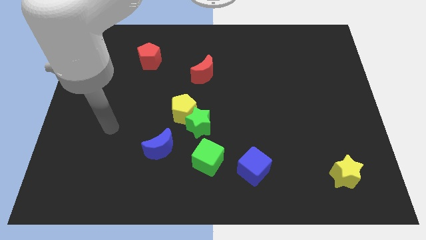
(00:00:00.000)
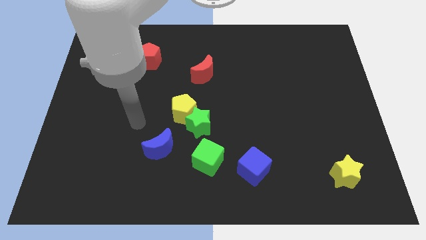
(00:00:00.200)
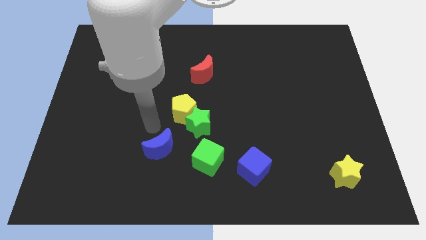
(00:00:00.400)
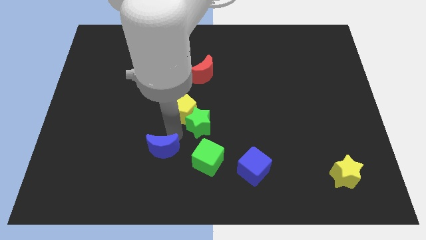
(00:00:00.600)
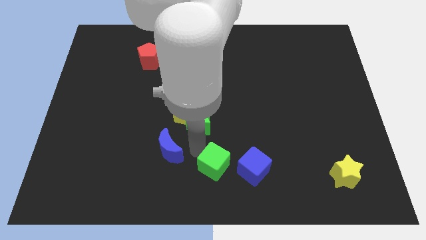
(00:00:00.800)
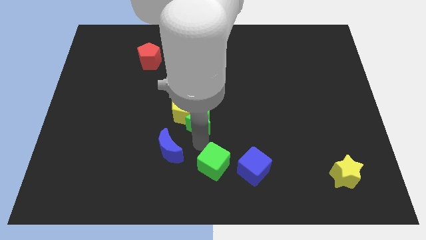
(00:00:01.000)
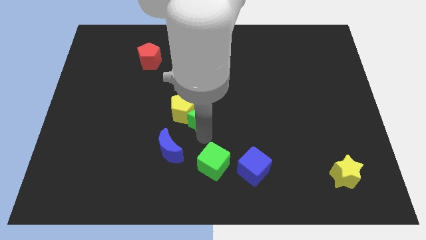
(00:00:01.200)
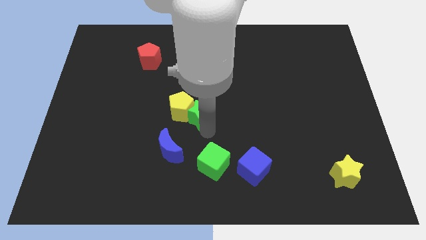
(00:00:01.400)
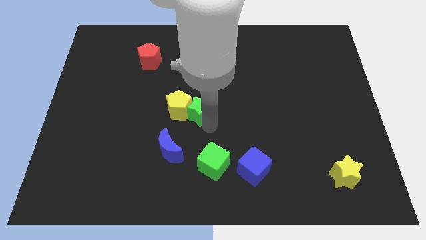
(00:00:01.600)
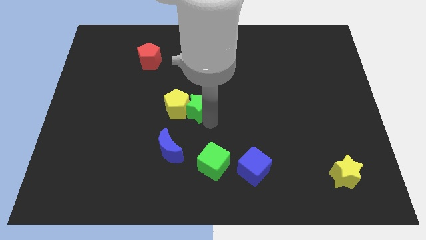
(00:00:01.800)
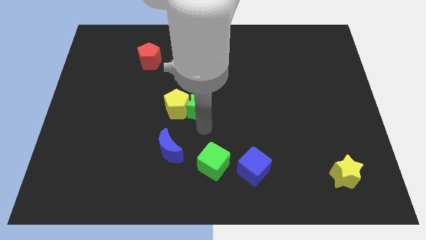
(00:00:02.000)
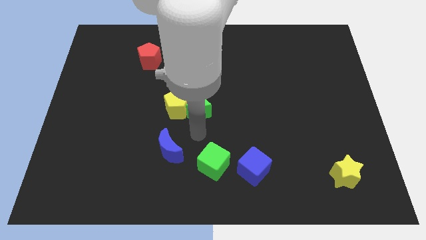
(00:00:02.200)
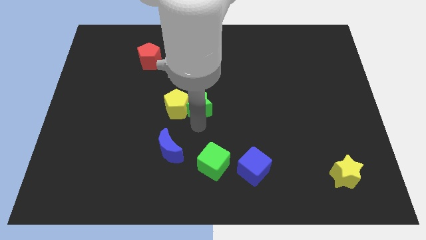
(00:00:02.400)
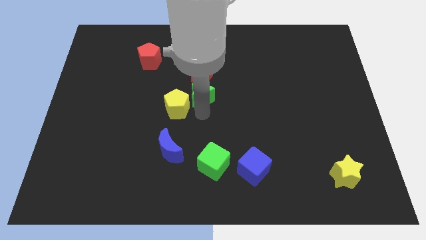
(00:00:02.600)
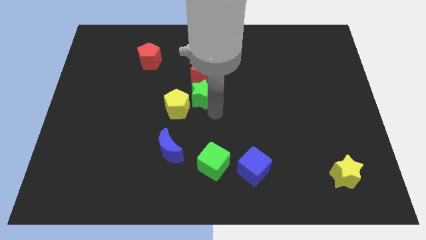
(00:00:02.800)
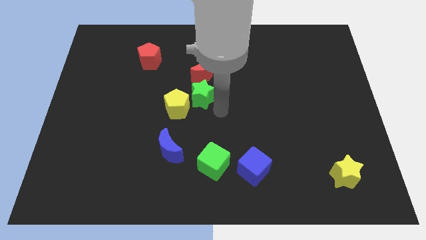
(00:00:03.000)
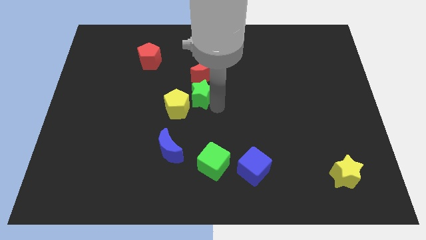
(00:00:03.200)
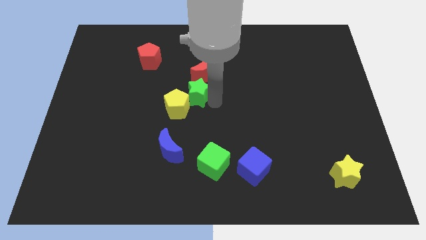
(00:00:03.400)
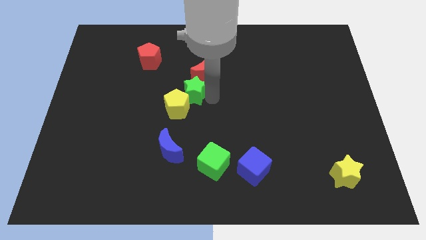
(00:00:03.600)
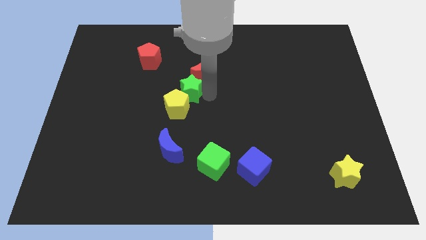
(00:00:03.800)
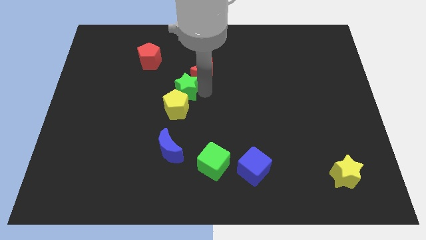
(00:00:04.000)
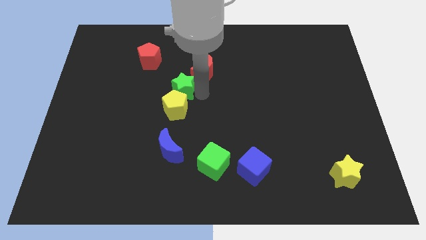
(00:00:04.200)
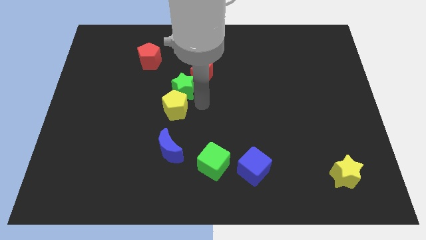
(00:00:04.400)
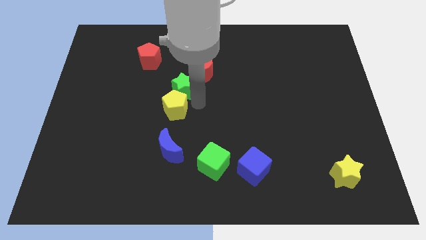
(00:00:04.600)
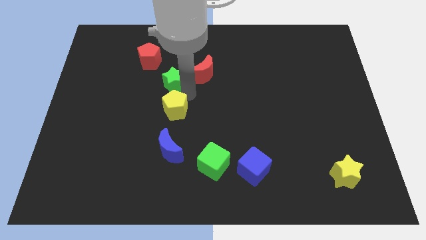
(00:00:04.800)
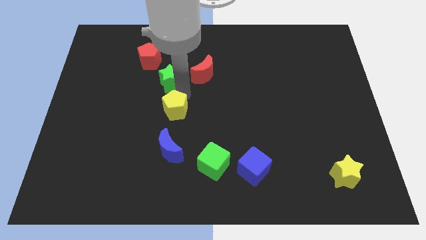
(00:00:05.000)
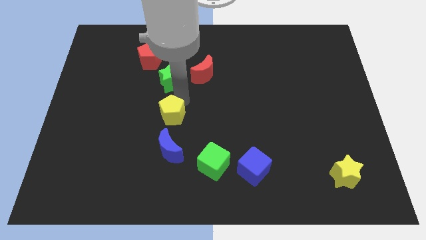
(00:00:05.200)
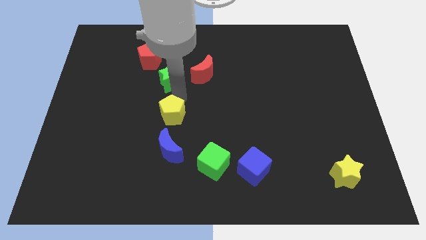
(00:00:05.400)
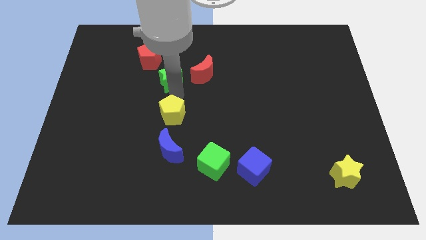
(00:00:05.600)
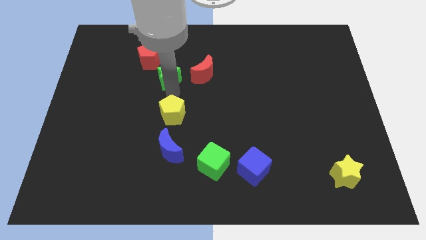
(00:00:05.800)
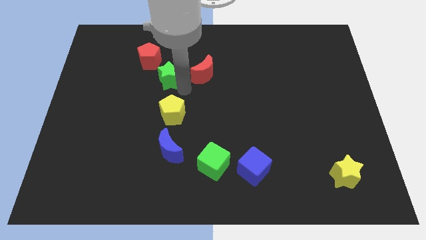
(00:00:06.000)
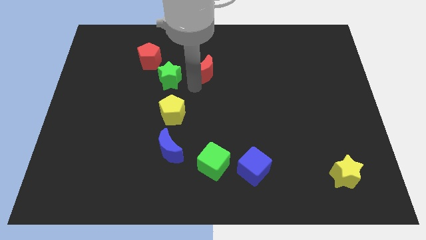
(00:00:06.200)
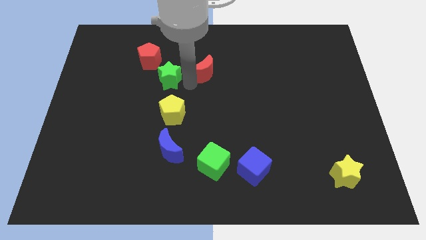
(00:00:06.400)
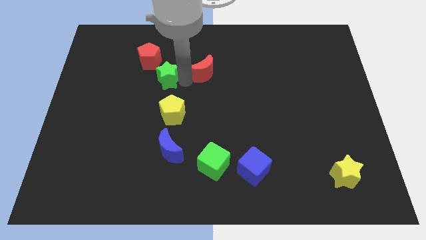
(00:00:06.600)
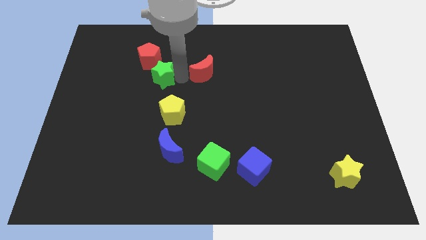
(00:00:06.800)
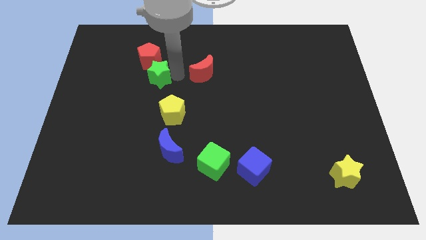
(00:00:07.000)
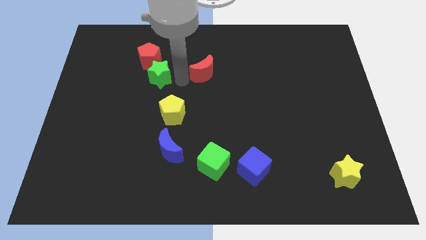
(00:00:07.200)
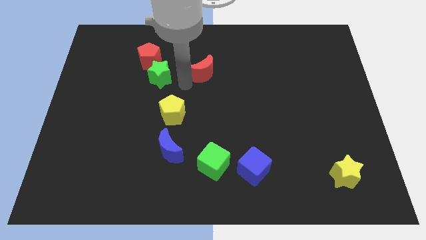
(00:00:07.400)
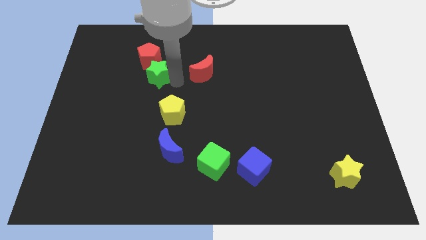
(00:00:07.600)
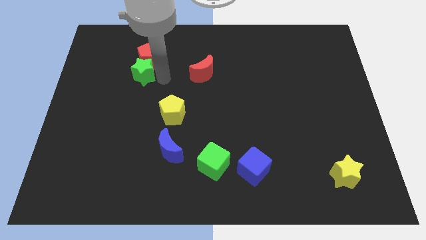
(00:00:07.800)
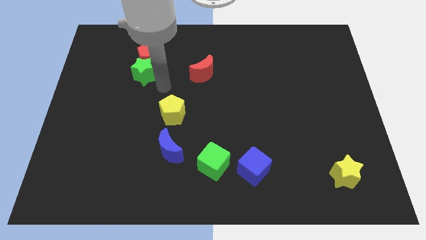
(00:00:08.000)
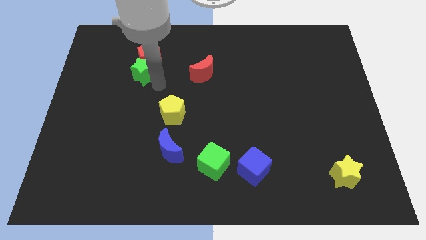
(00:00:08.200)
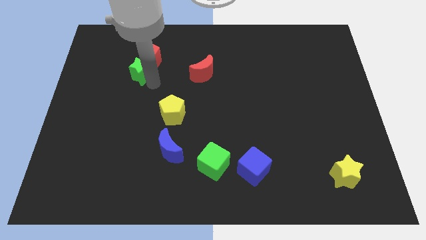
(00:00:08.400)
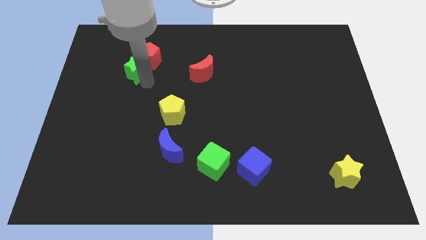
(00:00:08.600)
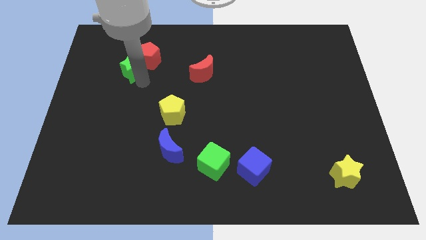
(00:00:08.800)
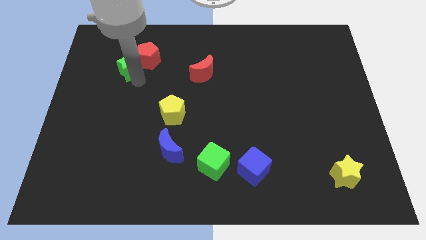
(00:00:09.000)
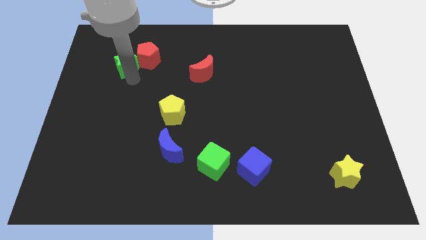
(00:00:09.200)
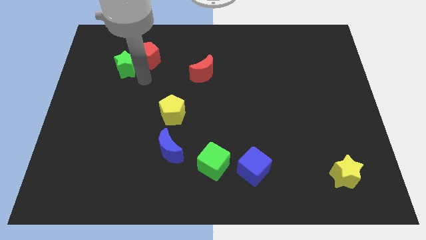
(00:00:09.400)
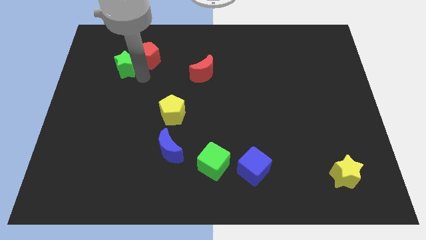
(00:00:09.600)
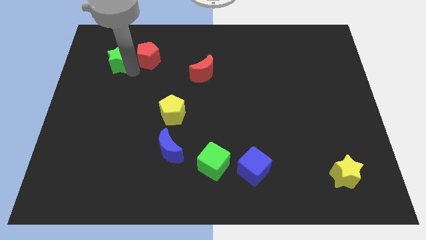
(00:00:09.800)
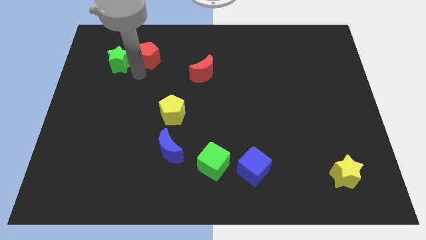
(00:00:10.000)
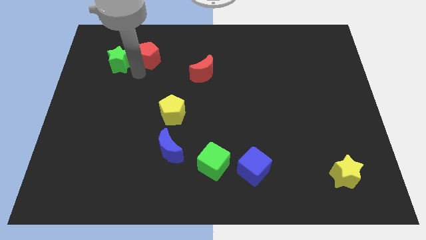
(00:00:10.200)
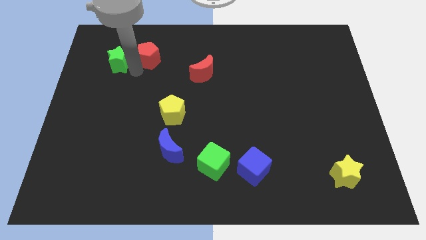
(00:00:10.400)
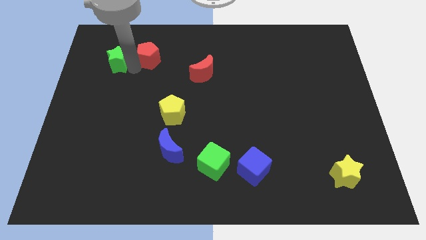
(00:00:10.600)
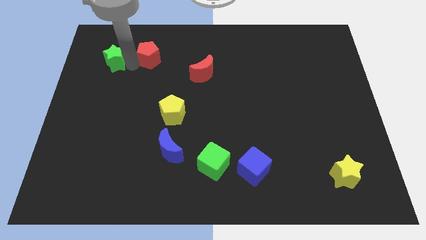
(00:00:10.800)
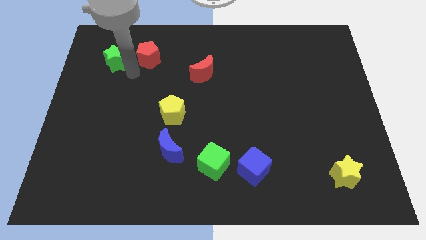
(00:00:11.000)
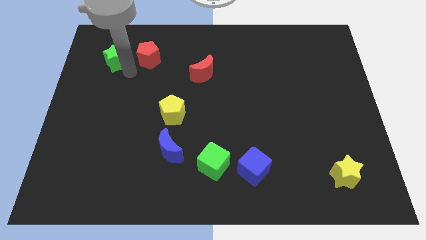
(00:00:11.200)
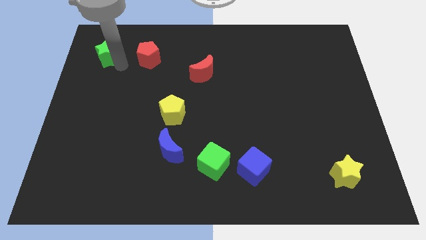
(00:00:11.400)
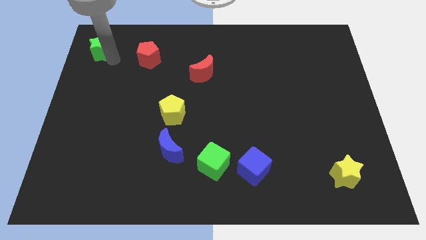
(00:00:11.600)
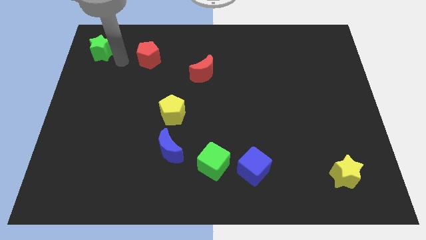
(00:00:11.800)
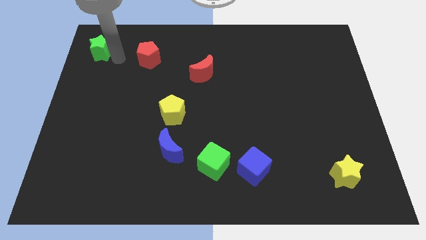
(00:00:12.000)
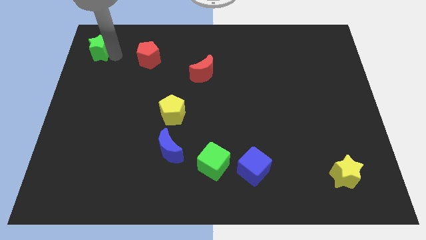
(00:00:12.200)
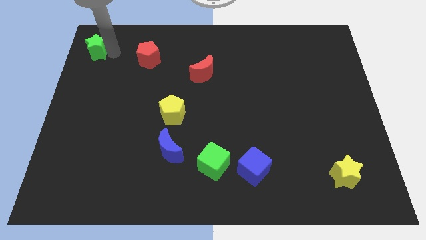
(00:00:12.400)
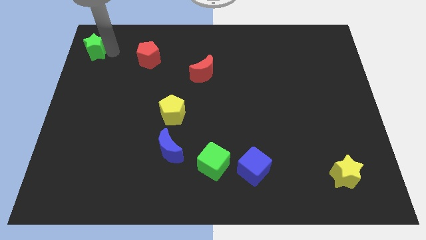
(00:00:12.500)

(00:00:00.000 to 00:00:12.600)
put the green star to the upper left corner
